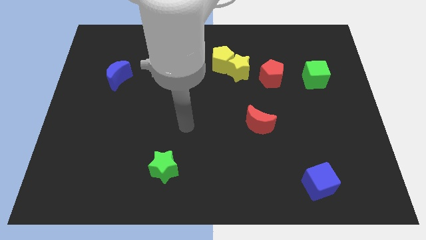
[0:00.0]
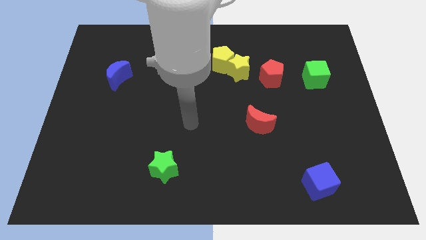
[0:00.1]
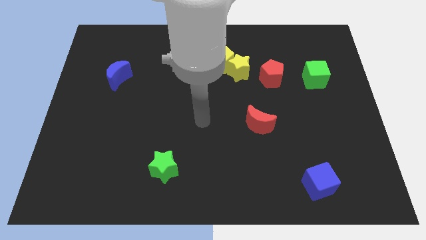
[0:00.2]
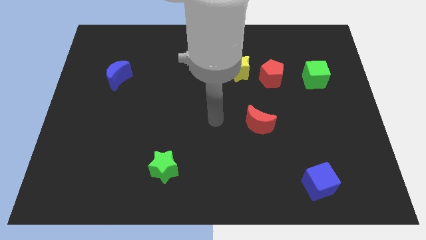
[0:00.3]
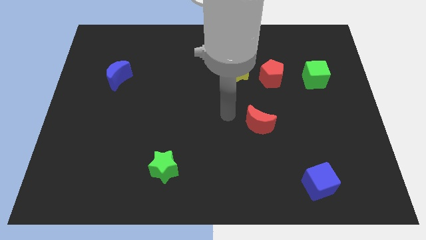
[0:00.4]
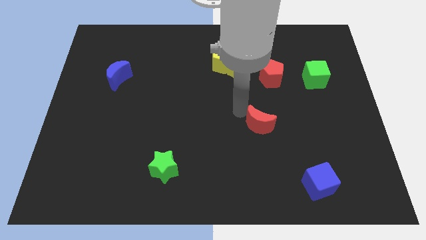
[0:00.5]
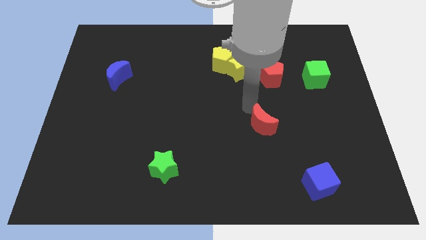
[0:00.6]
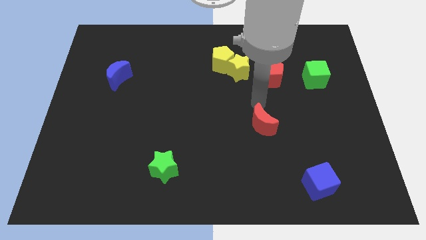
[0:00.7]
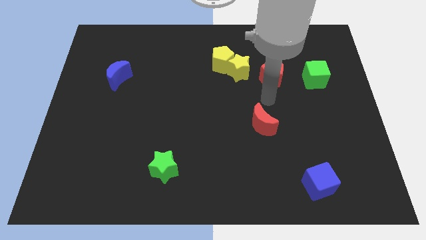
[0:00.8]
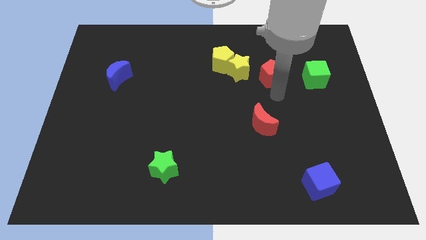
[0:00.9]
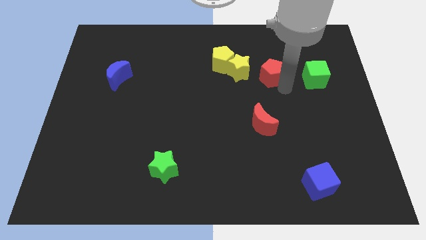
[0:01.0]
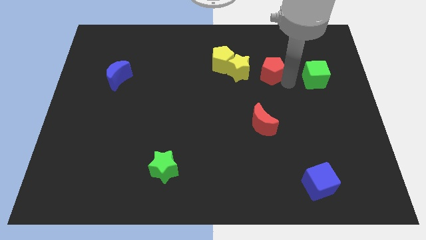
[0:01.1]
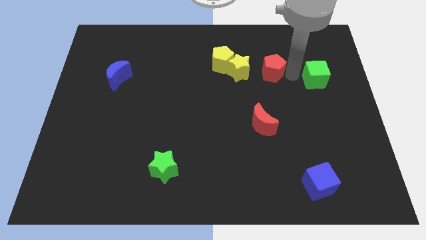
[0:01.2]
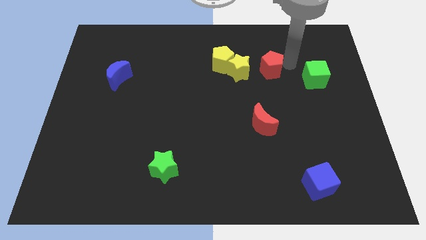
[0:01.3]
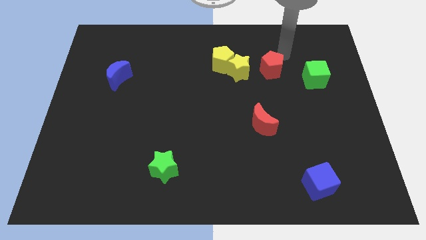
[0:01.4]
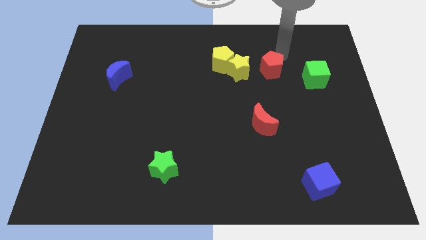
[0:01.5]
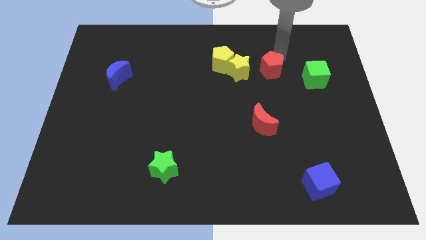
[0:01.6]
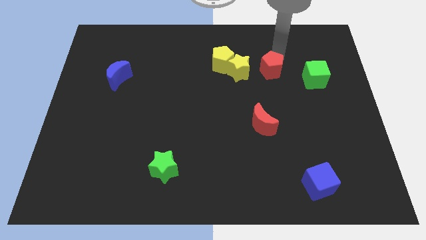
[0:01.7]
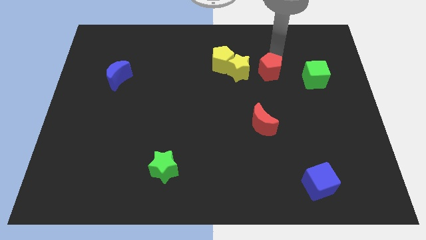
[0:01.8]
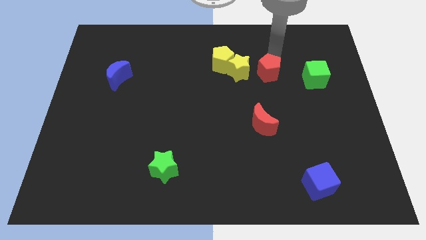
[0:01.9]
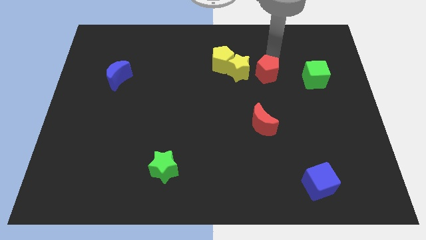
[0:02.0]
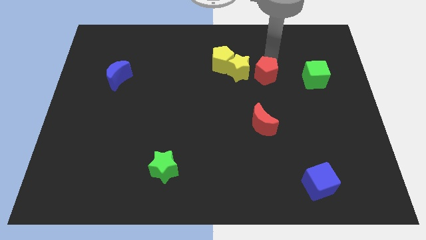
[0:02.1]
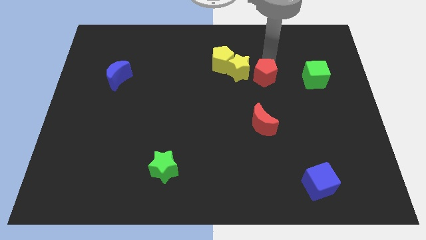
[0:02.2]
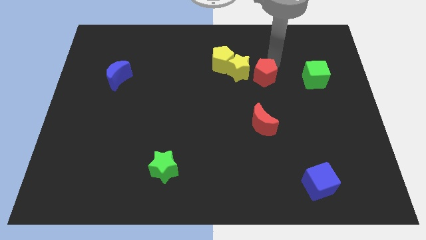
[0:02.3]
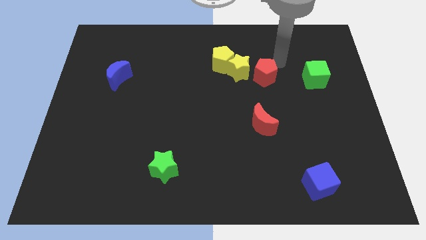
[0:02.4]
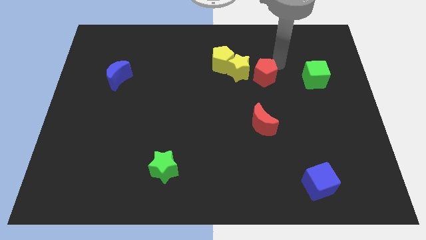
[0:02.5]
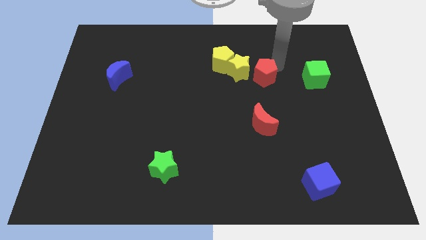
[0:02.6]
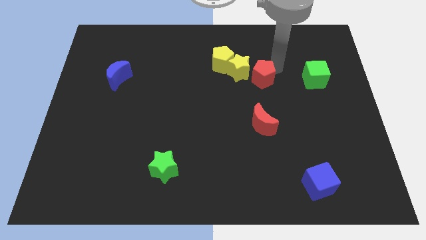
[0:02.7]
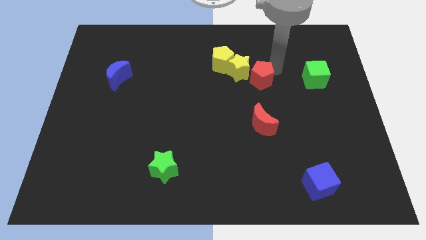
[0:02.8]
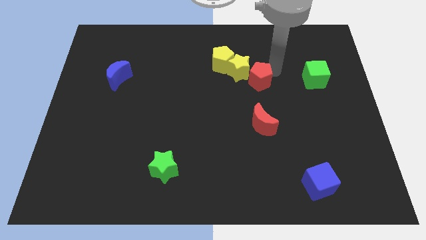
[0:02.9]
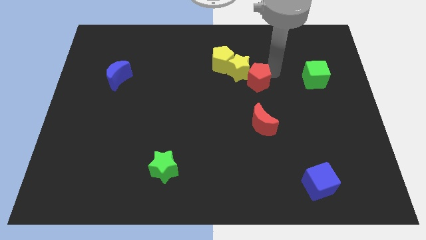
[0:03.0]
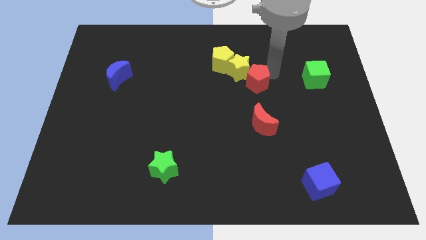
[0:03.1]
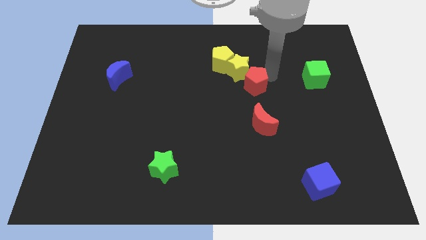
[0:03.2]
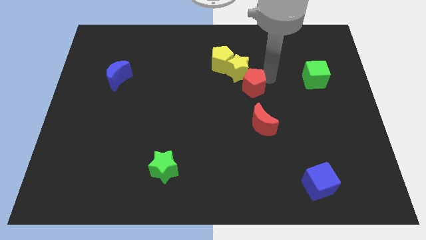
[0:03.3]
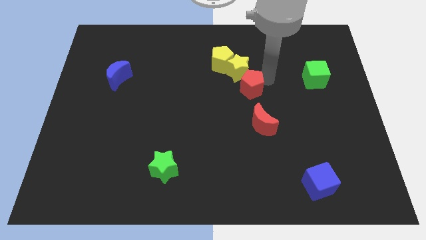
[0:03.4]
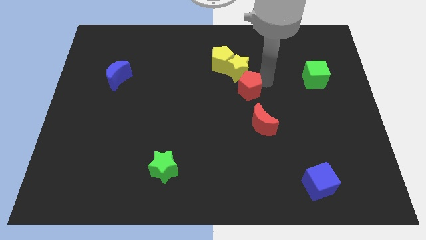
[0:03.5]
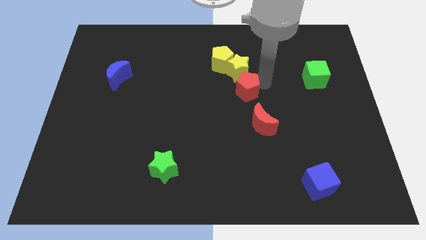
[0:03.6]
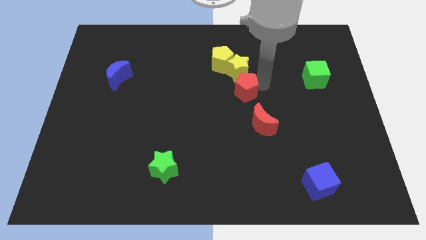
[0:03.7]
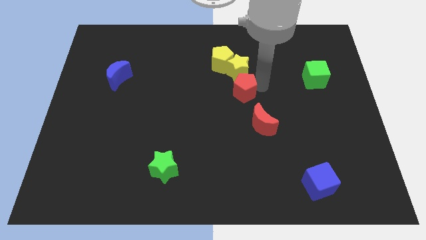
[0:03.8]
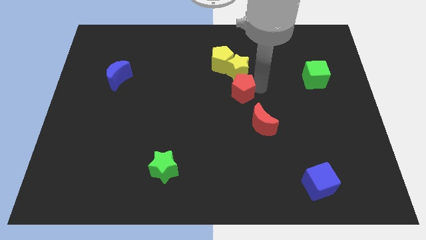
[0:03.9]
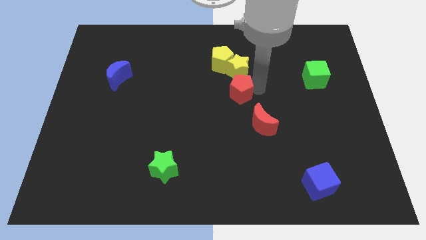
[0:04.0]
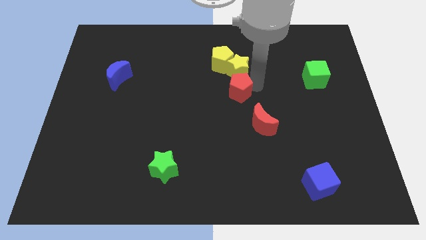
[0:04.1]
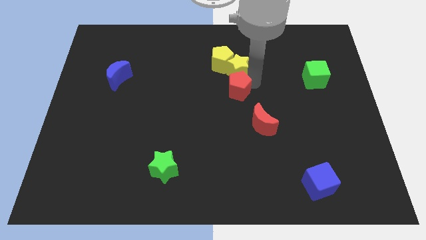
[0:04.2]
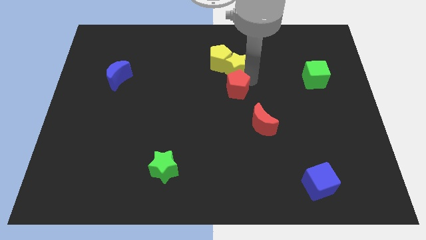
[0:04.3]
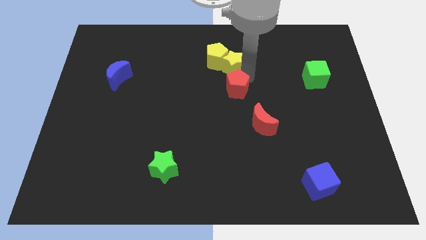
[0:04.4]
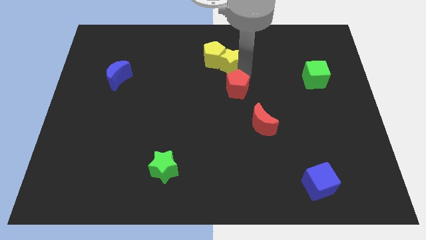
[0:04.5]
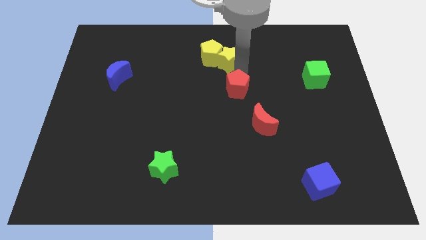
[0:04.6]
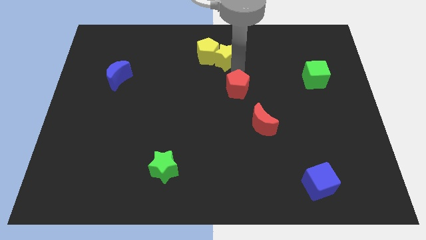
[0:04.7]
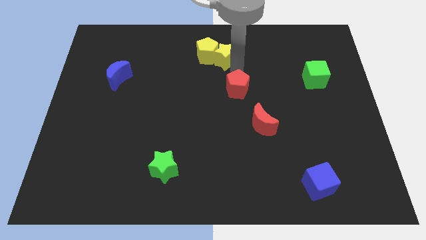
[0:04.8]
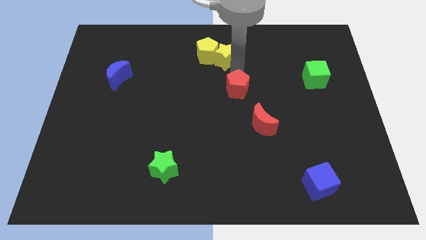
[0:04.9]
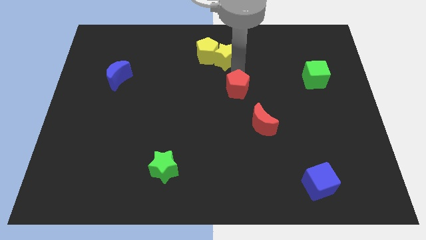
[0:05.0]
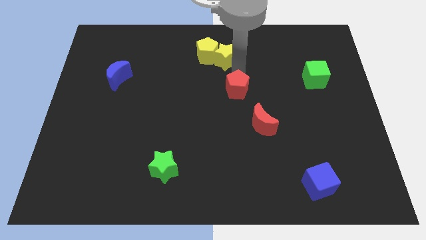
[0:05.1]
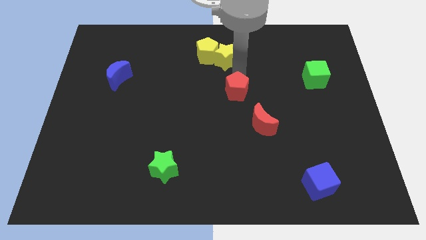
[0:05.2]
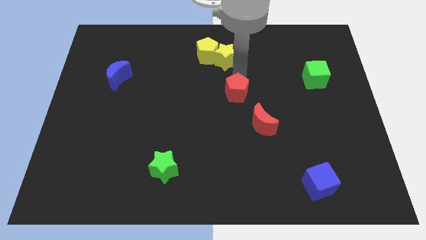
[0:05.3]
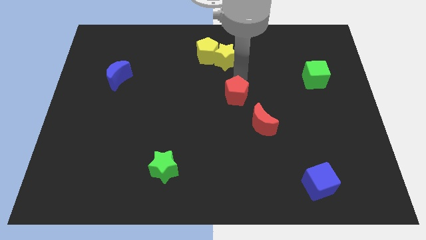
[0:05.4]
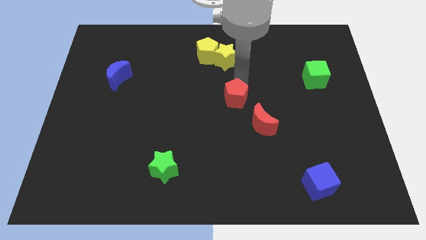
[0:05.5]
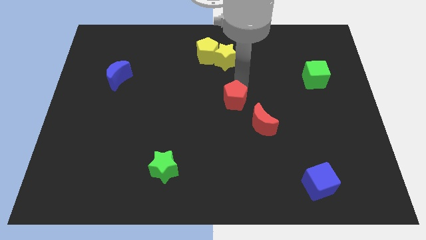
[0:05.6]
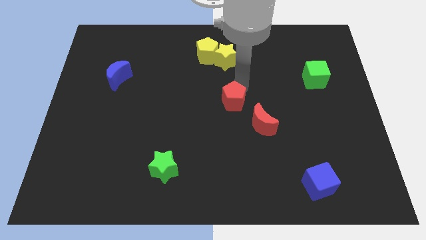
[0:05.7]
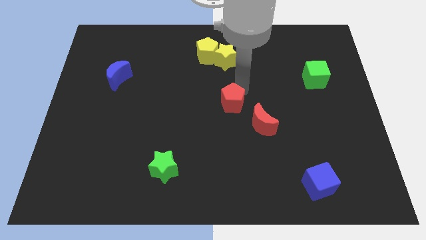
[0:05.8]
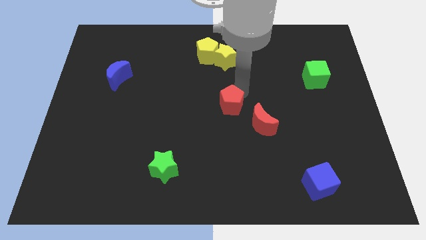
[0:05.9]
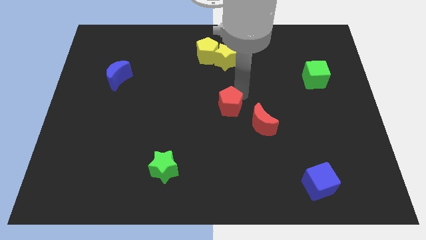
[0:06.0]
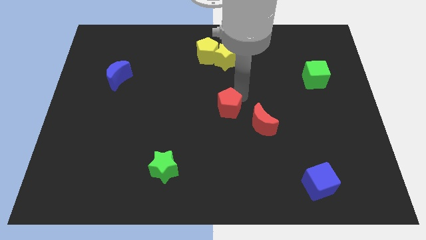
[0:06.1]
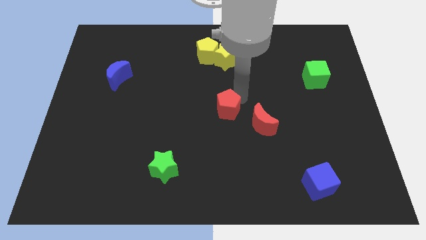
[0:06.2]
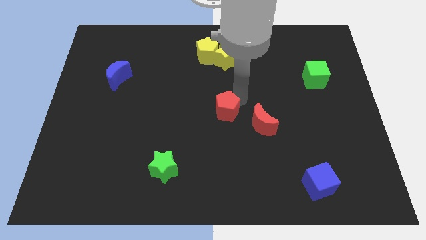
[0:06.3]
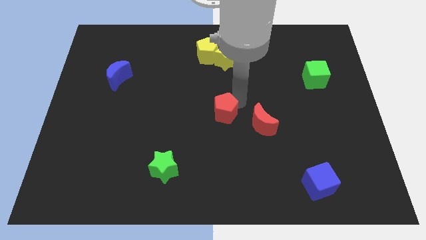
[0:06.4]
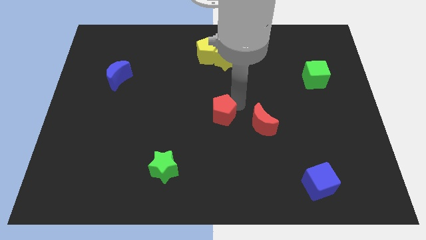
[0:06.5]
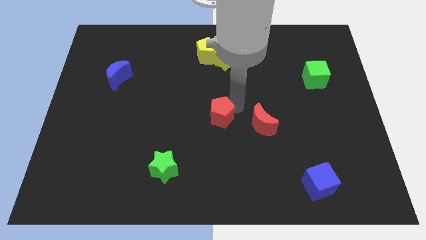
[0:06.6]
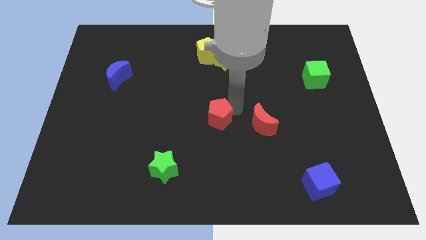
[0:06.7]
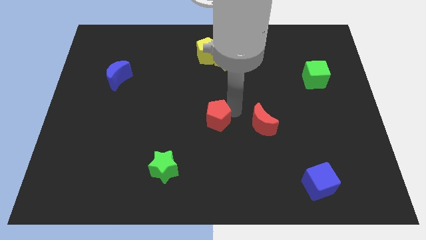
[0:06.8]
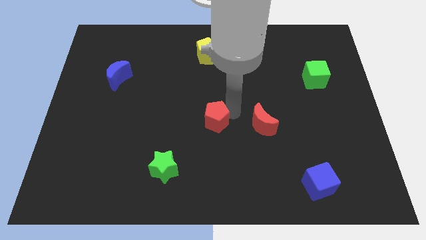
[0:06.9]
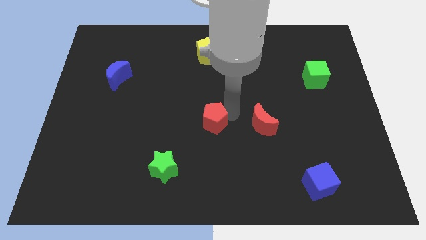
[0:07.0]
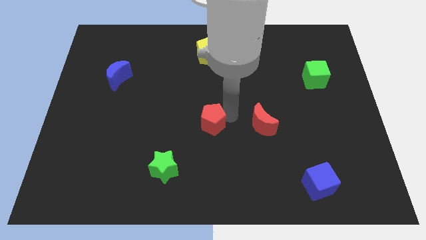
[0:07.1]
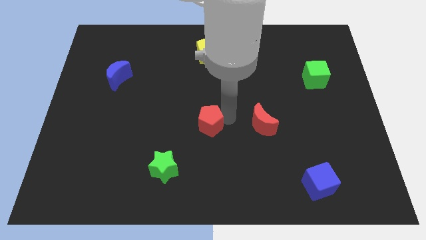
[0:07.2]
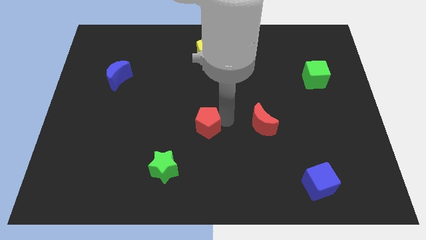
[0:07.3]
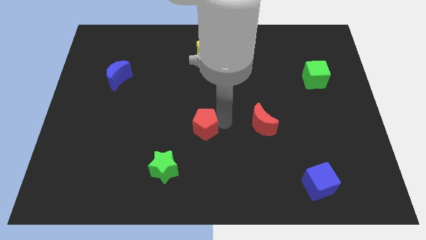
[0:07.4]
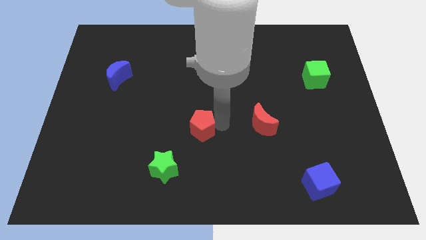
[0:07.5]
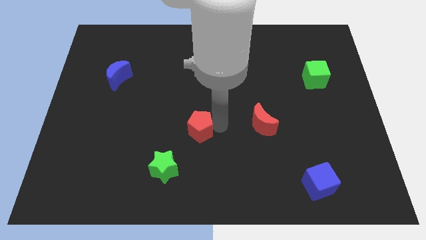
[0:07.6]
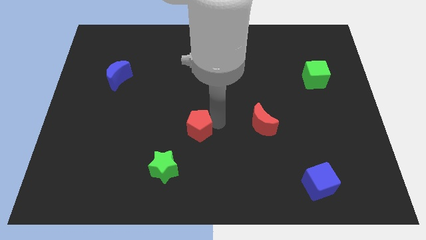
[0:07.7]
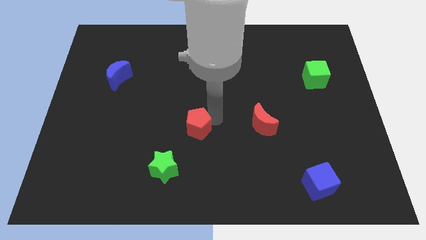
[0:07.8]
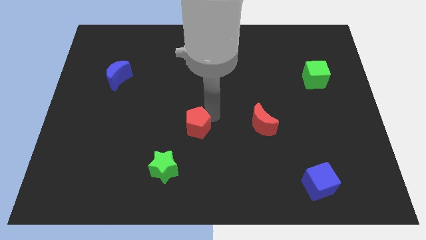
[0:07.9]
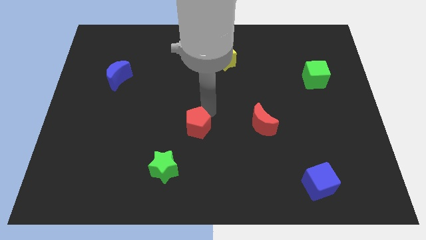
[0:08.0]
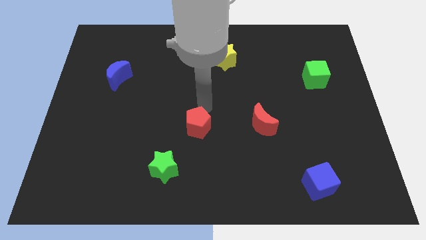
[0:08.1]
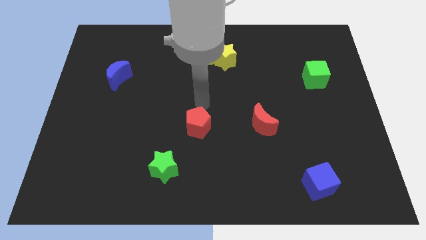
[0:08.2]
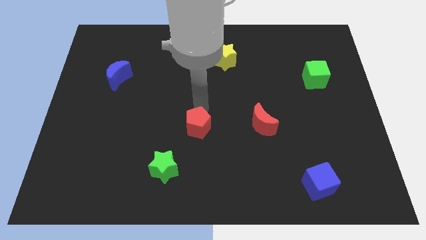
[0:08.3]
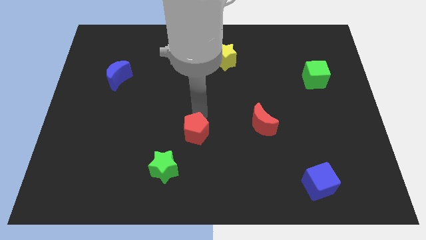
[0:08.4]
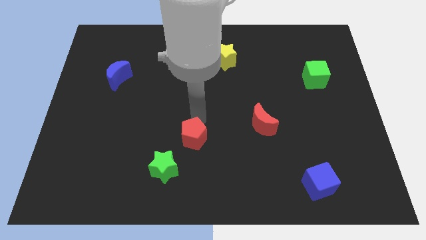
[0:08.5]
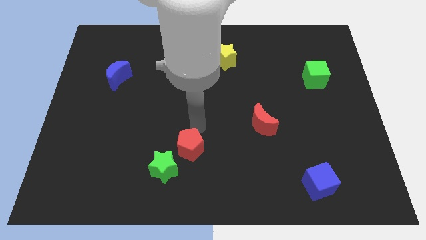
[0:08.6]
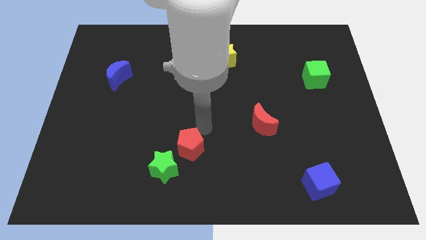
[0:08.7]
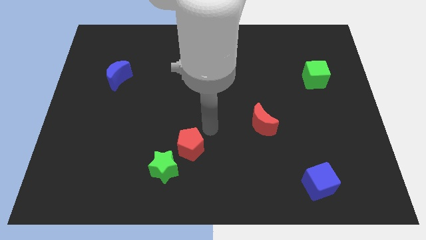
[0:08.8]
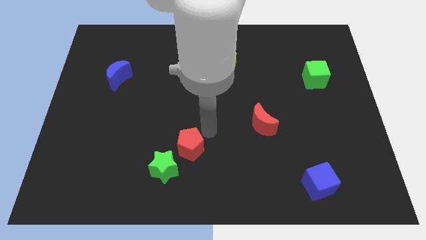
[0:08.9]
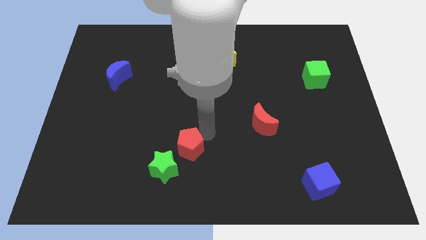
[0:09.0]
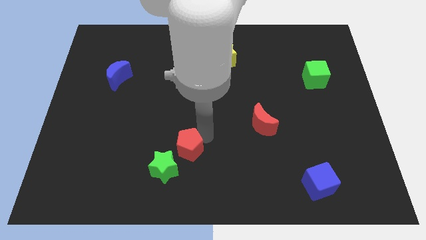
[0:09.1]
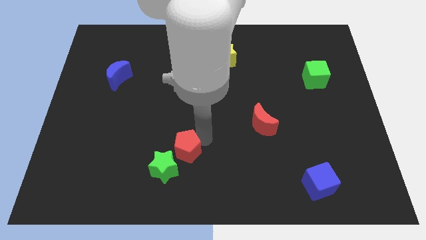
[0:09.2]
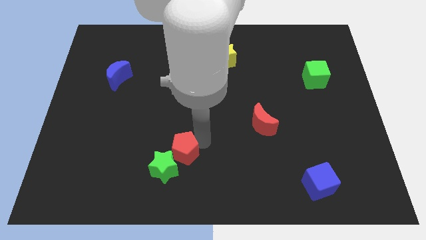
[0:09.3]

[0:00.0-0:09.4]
put the red pentagon towards the green star
